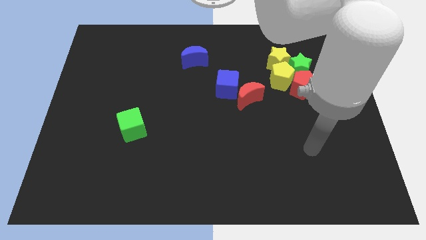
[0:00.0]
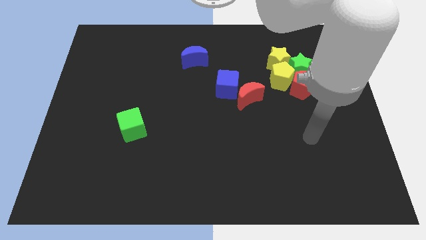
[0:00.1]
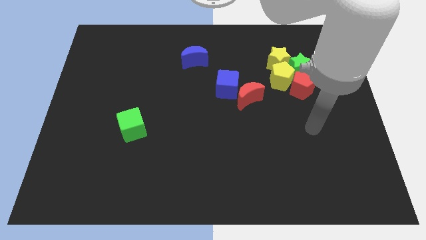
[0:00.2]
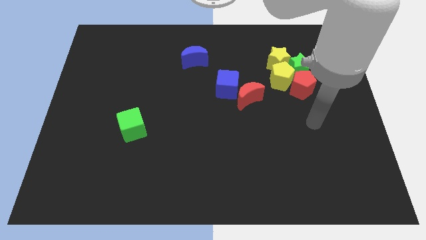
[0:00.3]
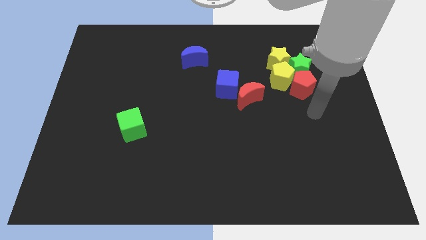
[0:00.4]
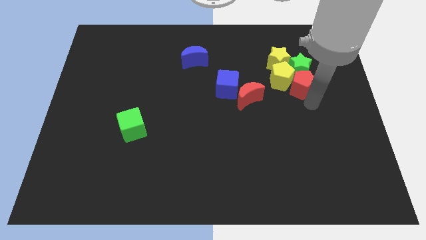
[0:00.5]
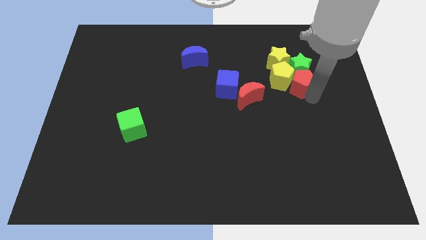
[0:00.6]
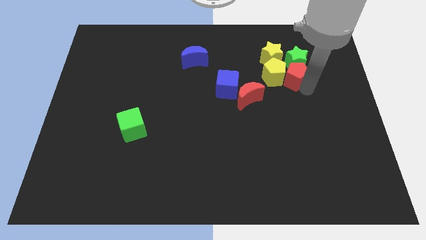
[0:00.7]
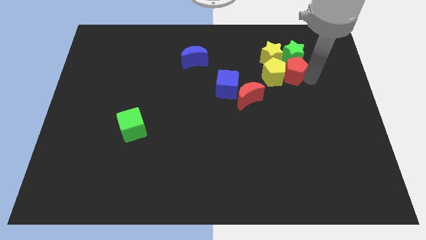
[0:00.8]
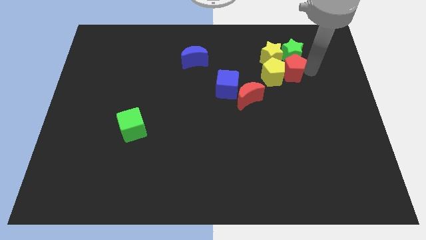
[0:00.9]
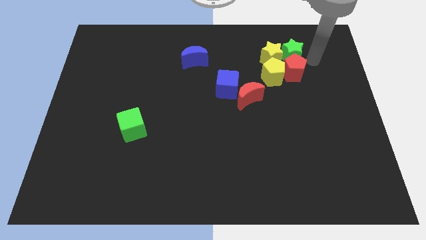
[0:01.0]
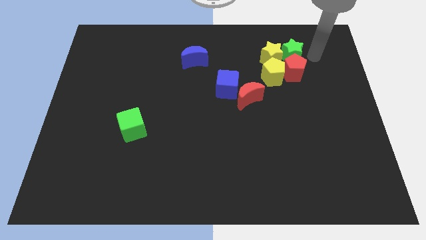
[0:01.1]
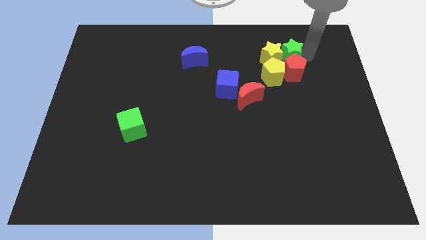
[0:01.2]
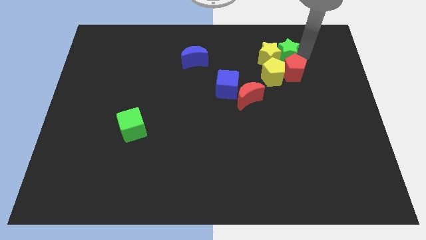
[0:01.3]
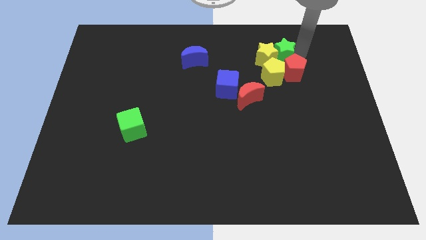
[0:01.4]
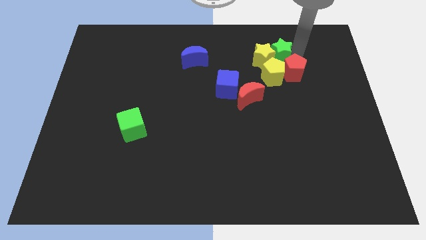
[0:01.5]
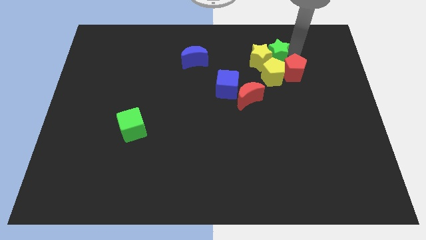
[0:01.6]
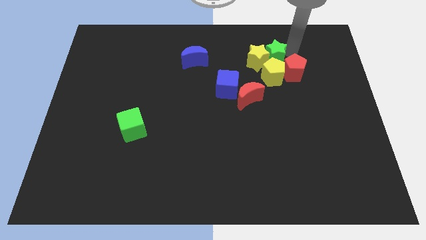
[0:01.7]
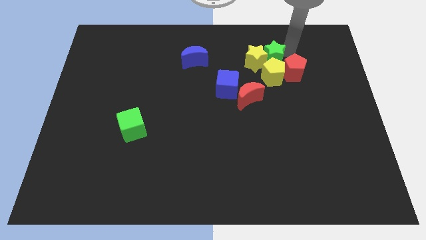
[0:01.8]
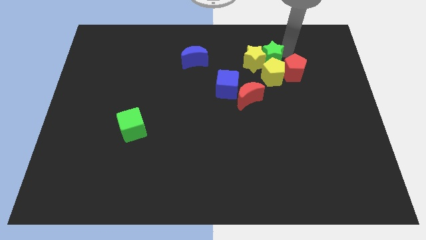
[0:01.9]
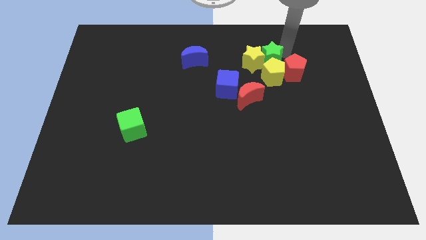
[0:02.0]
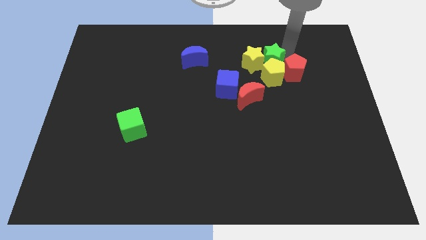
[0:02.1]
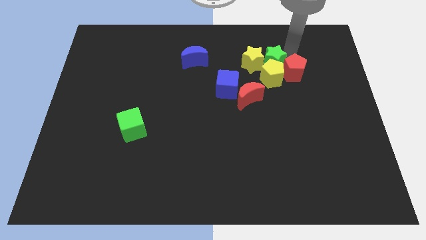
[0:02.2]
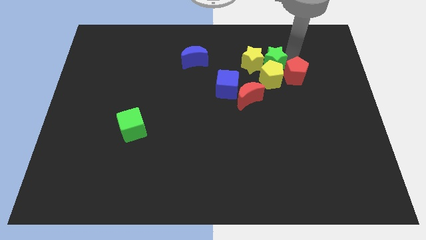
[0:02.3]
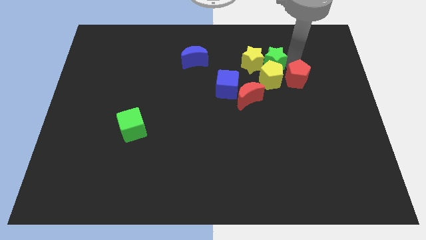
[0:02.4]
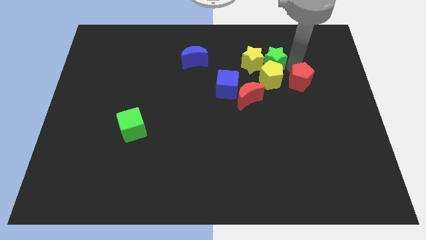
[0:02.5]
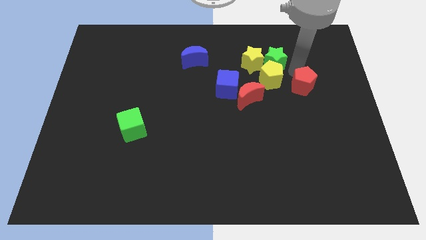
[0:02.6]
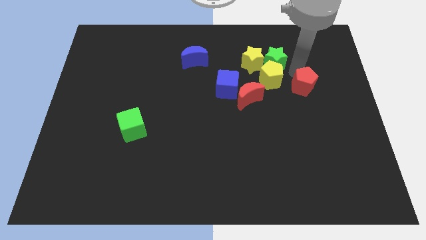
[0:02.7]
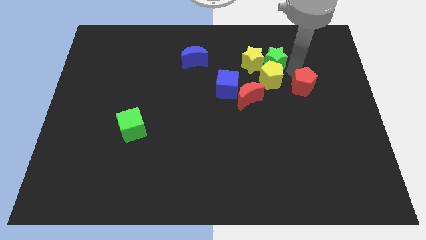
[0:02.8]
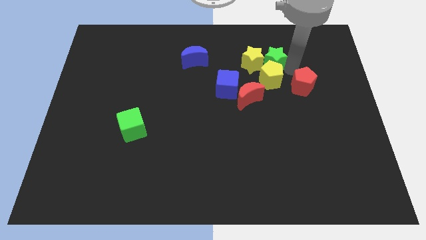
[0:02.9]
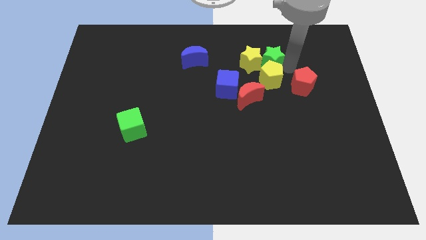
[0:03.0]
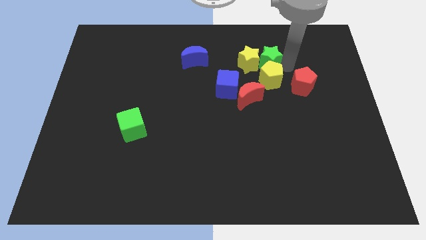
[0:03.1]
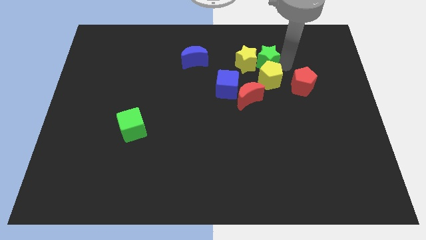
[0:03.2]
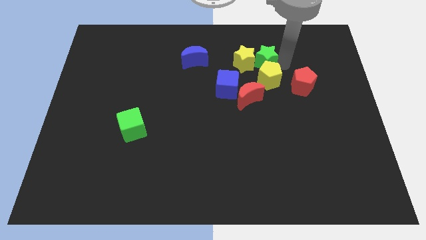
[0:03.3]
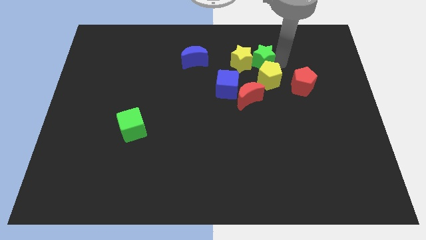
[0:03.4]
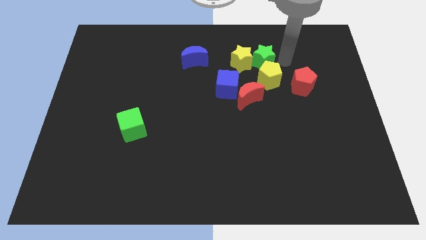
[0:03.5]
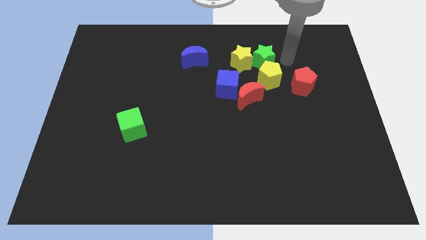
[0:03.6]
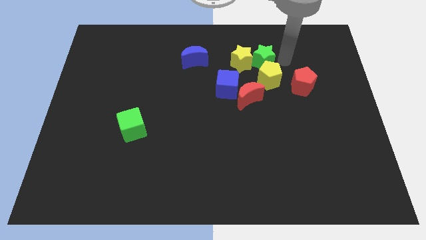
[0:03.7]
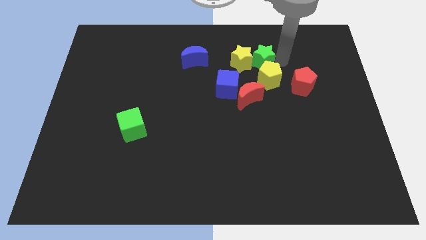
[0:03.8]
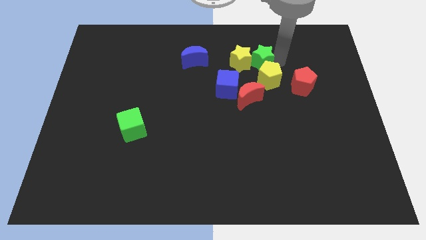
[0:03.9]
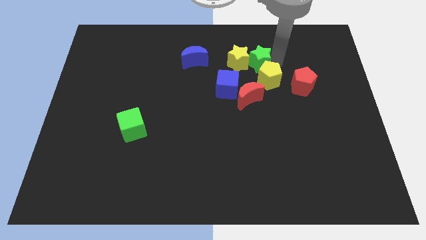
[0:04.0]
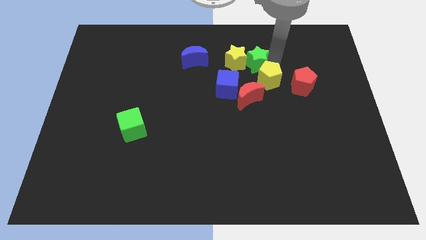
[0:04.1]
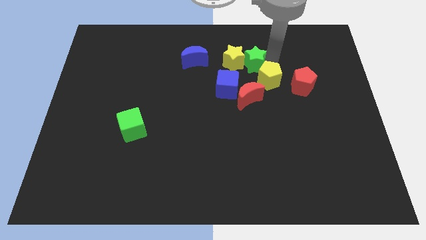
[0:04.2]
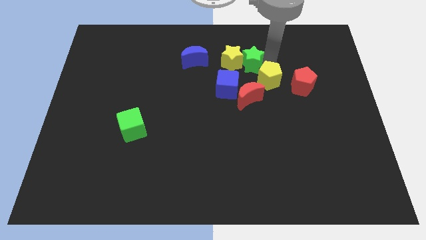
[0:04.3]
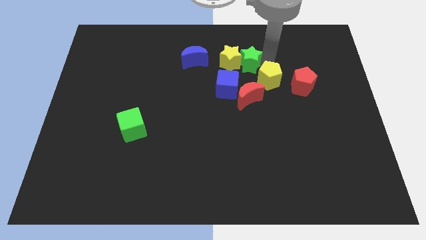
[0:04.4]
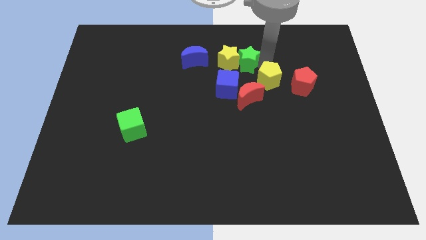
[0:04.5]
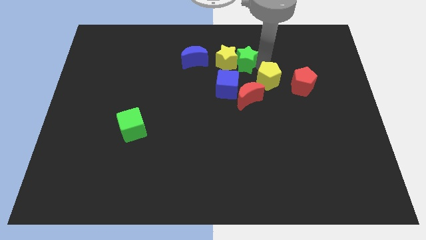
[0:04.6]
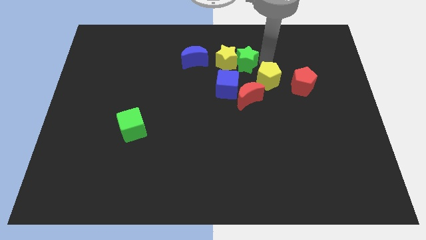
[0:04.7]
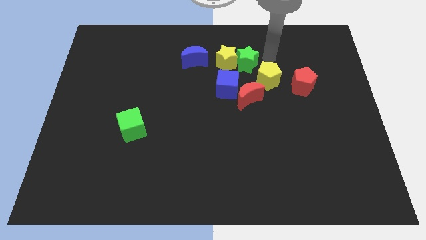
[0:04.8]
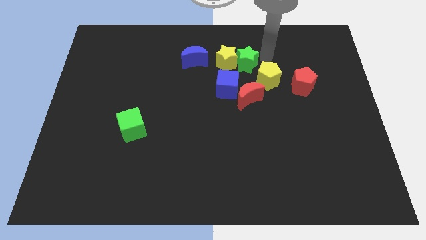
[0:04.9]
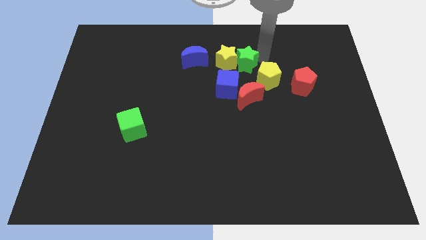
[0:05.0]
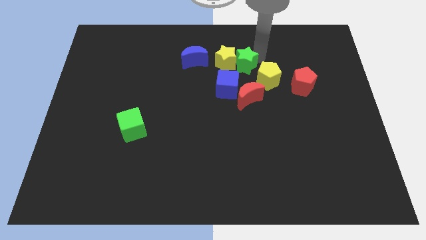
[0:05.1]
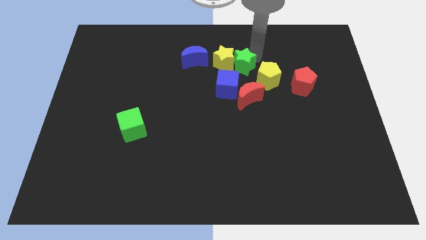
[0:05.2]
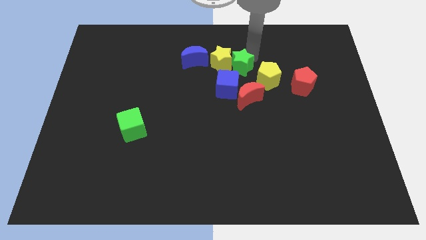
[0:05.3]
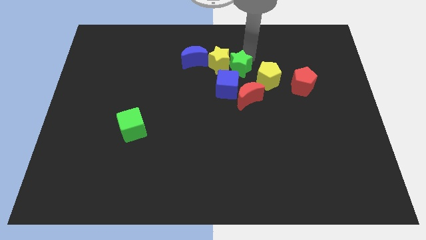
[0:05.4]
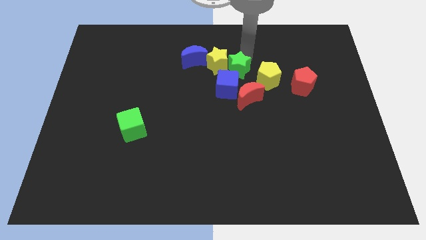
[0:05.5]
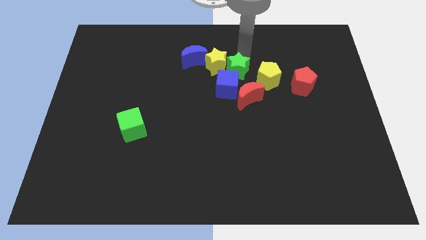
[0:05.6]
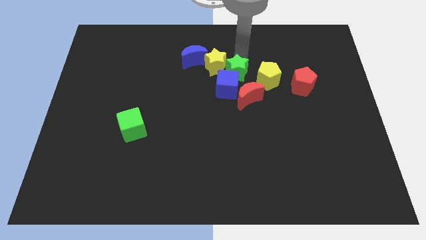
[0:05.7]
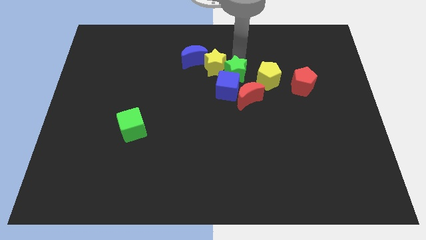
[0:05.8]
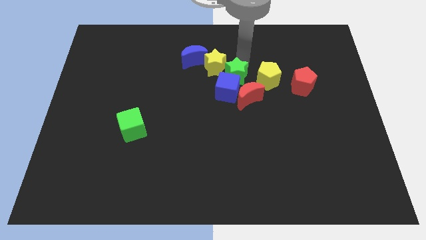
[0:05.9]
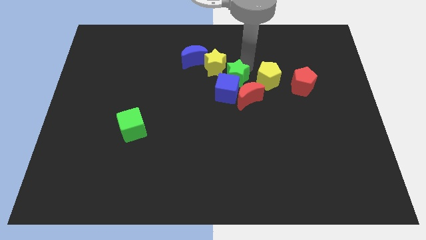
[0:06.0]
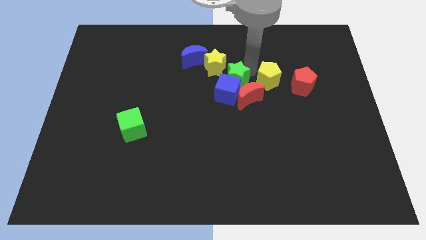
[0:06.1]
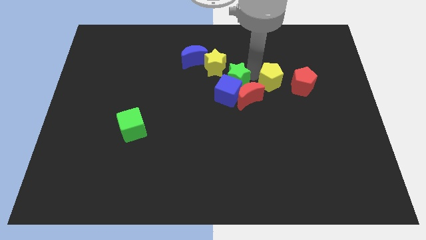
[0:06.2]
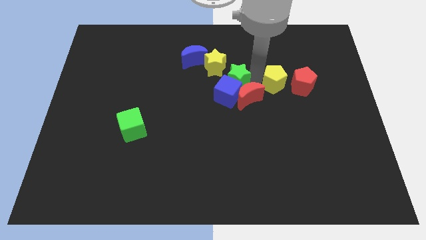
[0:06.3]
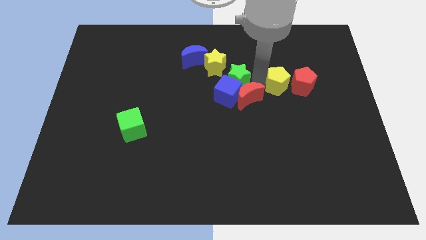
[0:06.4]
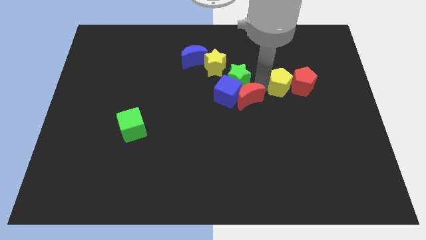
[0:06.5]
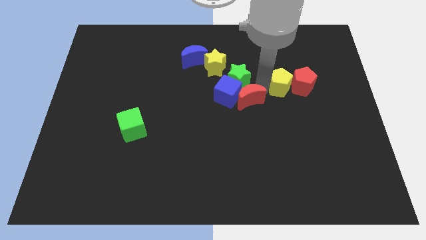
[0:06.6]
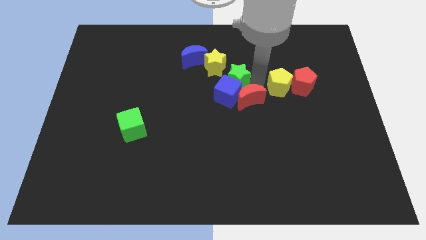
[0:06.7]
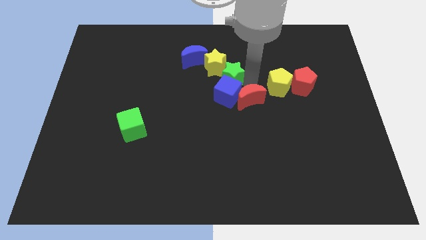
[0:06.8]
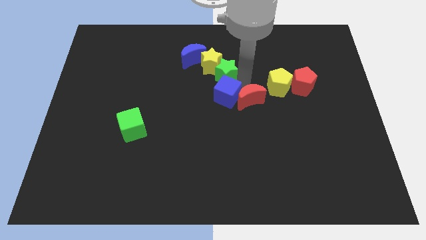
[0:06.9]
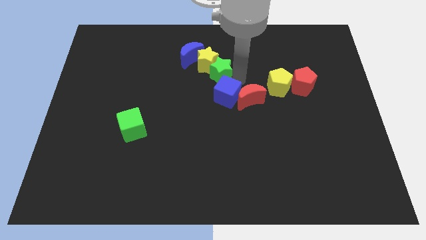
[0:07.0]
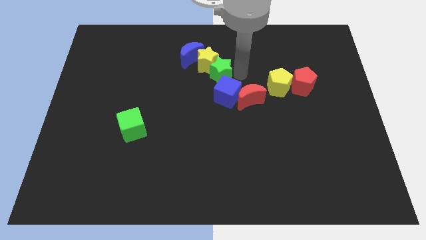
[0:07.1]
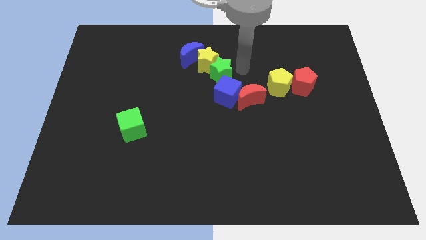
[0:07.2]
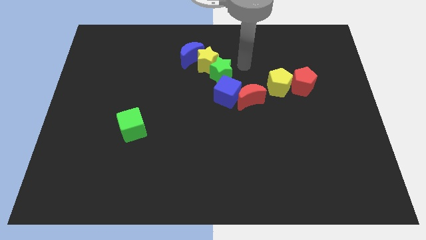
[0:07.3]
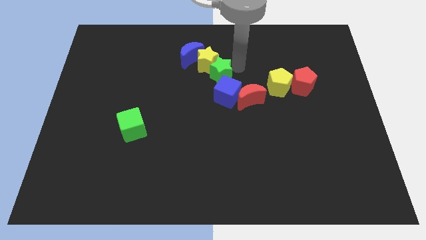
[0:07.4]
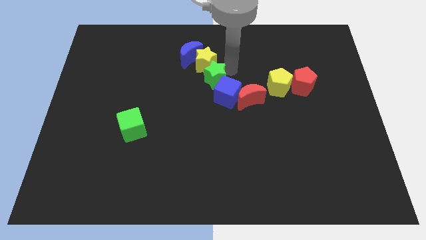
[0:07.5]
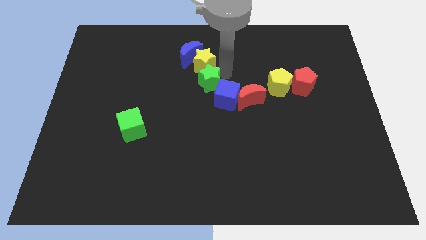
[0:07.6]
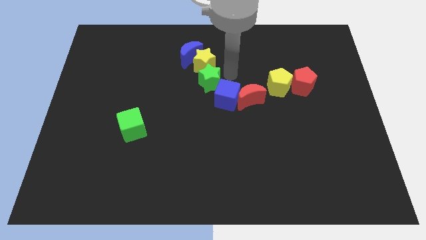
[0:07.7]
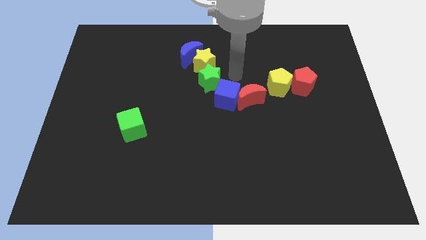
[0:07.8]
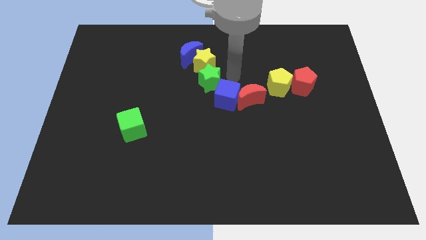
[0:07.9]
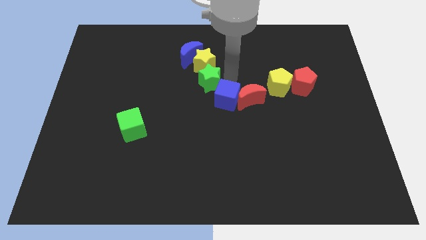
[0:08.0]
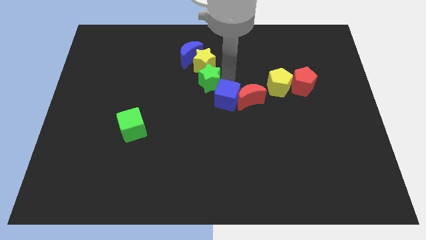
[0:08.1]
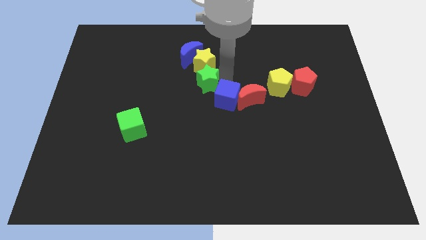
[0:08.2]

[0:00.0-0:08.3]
move the green star to the bottom side of the blue moon
